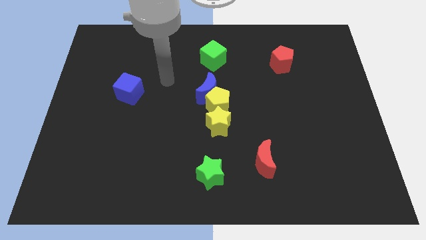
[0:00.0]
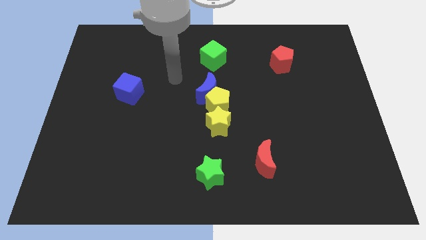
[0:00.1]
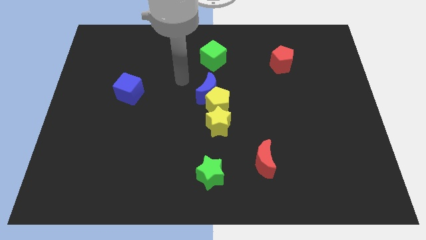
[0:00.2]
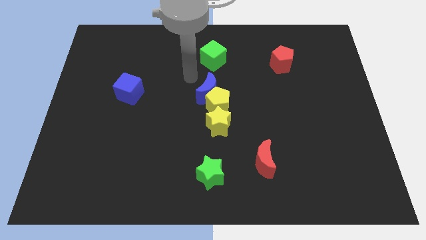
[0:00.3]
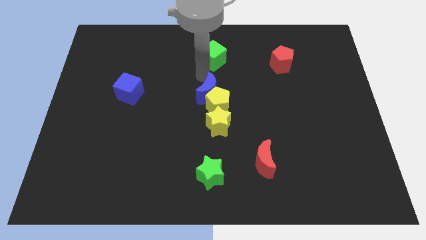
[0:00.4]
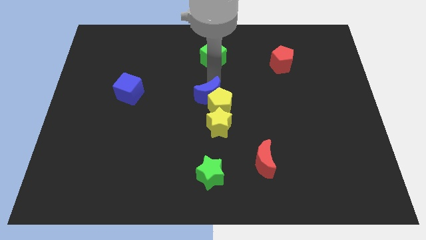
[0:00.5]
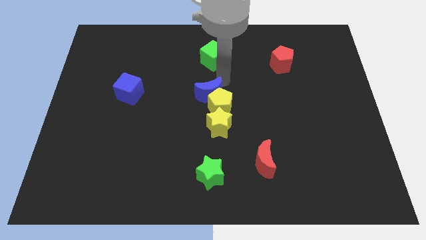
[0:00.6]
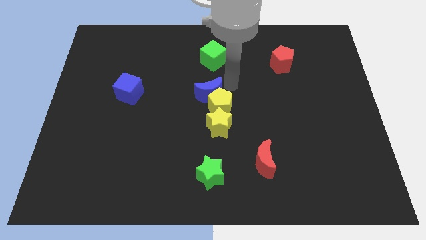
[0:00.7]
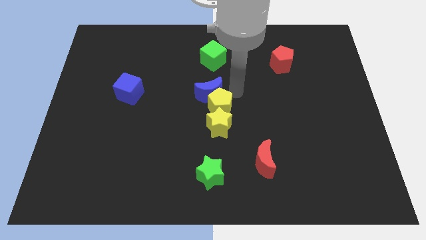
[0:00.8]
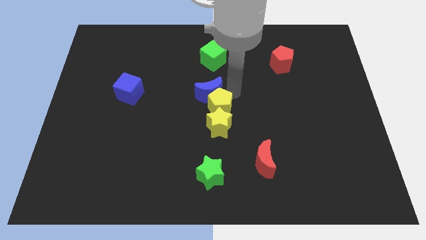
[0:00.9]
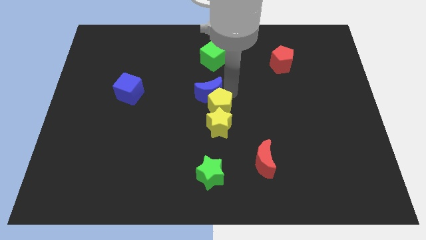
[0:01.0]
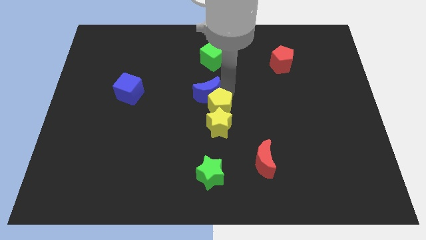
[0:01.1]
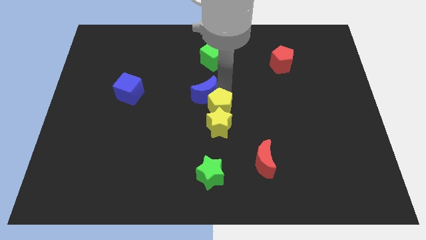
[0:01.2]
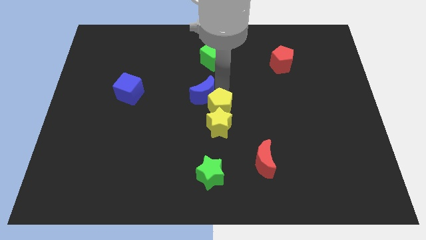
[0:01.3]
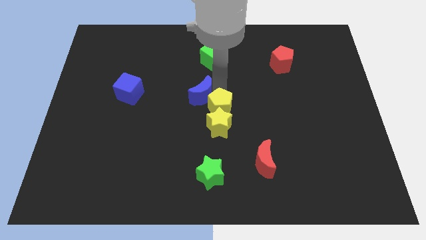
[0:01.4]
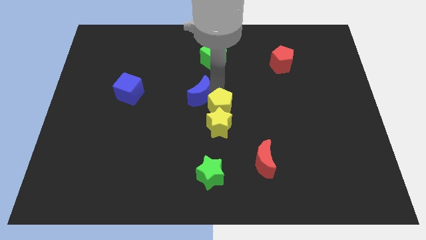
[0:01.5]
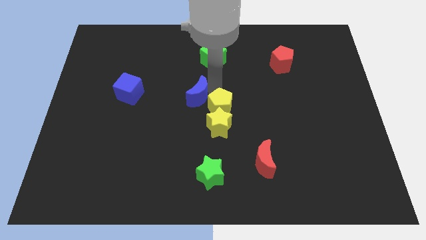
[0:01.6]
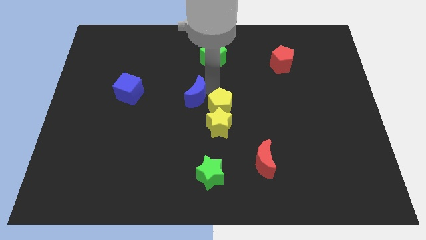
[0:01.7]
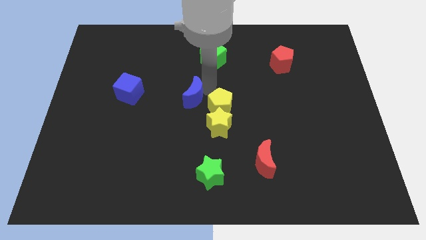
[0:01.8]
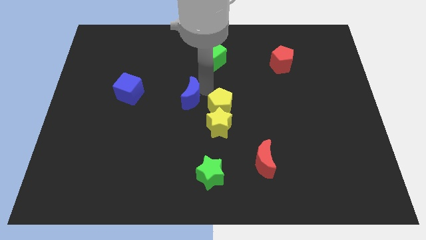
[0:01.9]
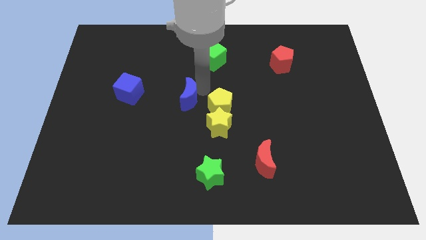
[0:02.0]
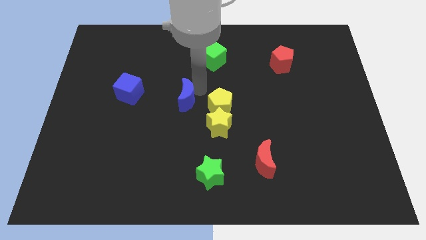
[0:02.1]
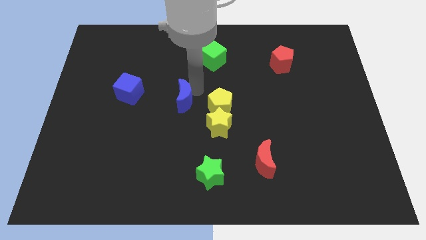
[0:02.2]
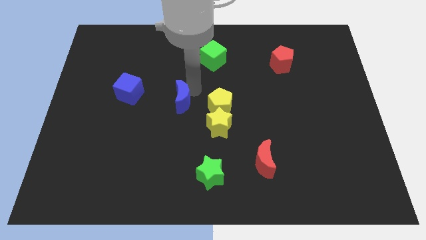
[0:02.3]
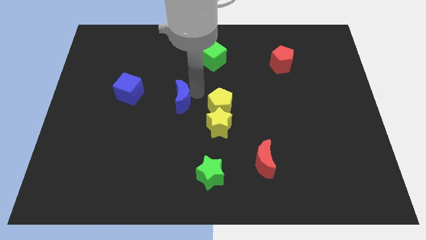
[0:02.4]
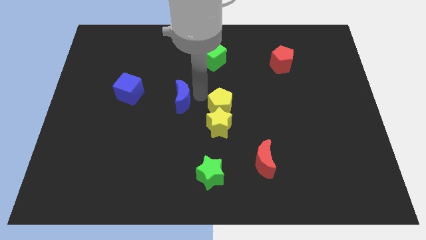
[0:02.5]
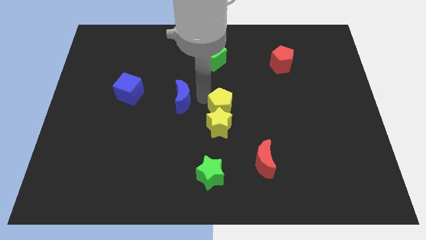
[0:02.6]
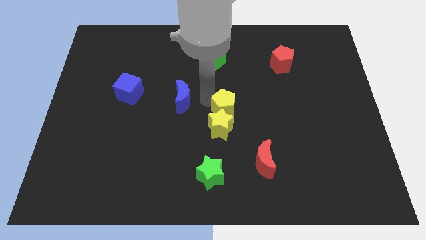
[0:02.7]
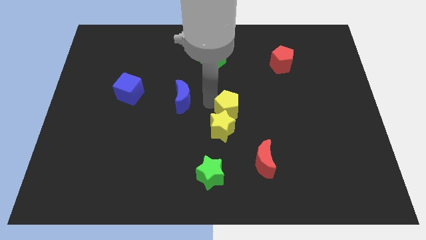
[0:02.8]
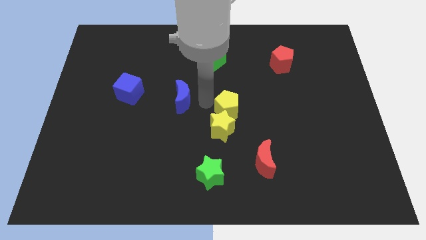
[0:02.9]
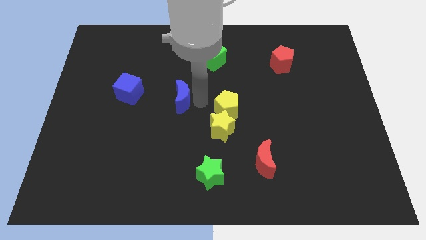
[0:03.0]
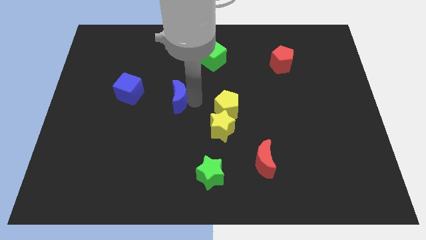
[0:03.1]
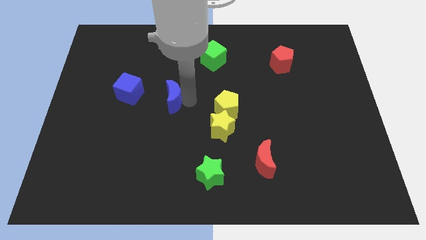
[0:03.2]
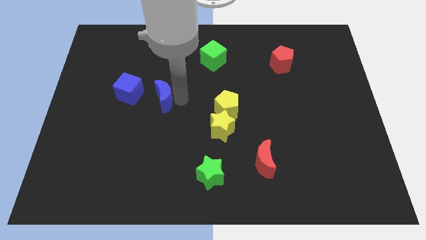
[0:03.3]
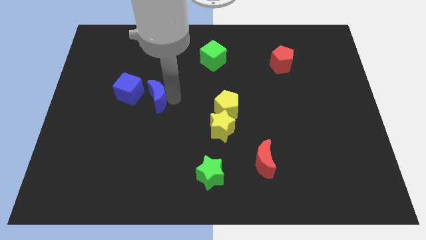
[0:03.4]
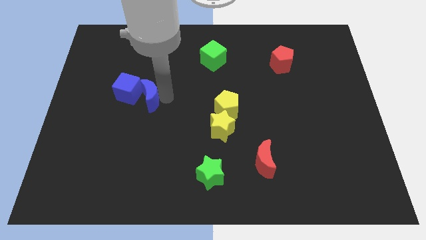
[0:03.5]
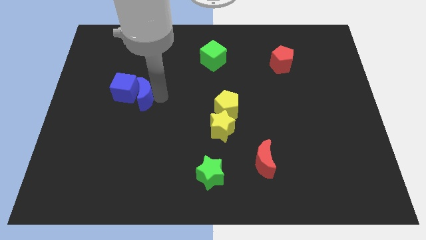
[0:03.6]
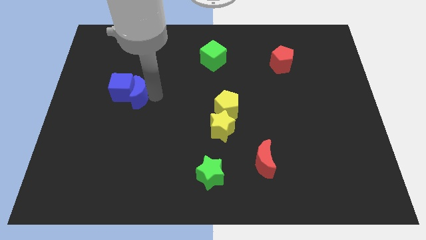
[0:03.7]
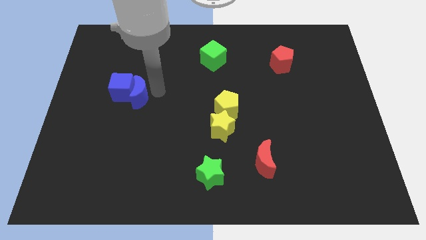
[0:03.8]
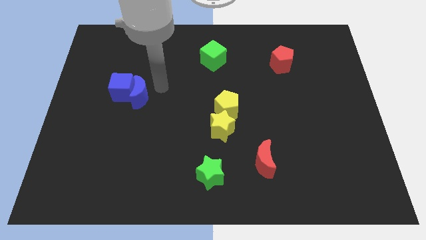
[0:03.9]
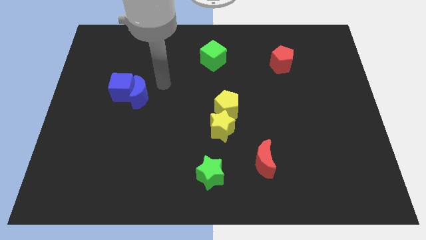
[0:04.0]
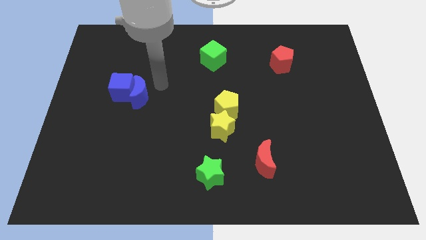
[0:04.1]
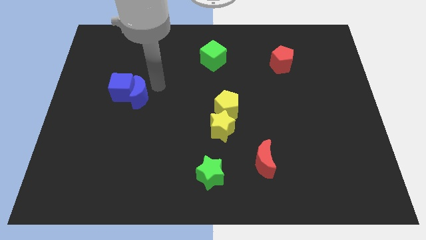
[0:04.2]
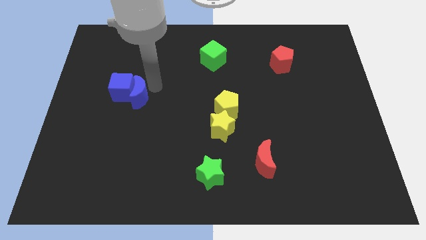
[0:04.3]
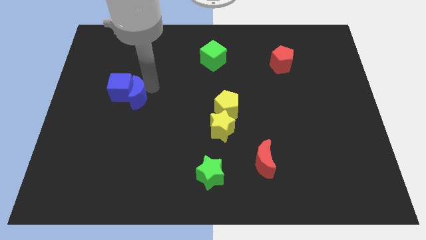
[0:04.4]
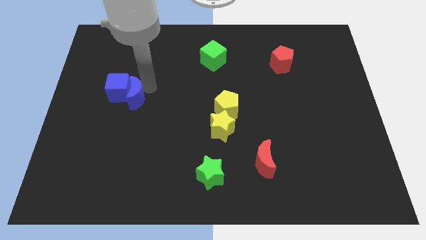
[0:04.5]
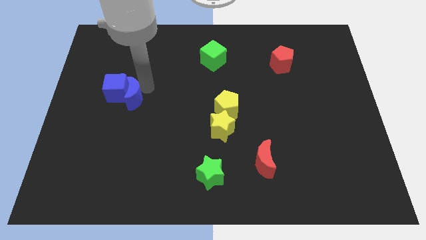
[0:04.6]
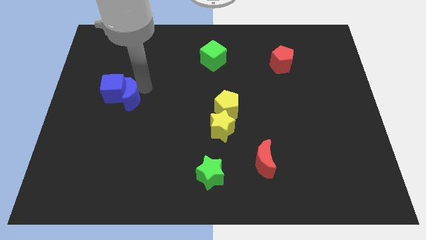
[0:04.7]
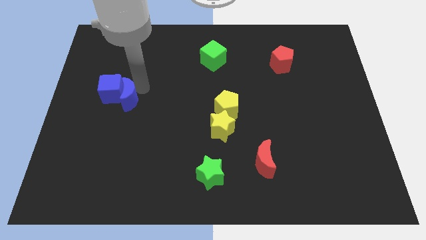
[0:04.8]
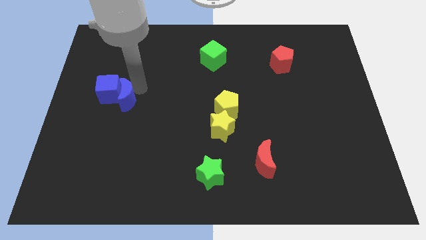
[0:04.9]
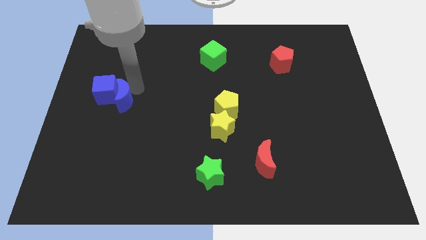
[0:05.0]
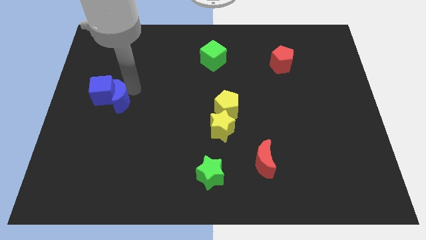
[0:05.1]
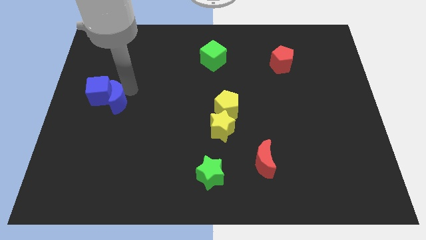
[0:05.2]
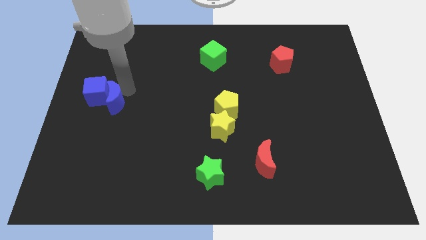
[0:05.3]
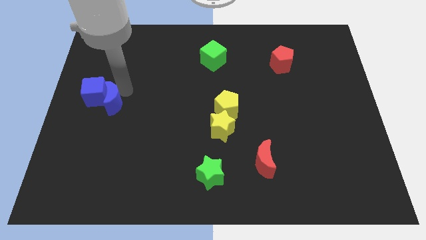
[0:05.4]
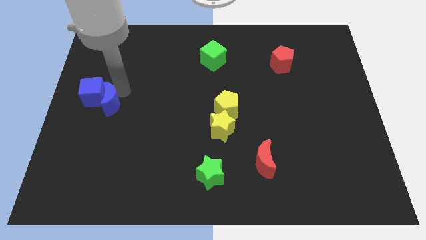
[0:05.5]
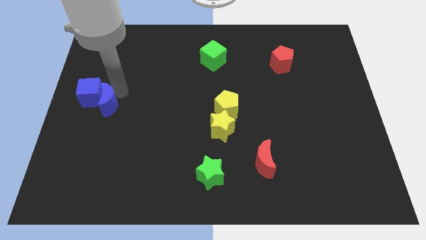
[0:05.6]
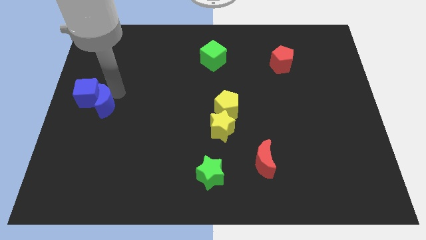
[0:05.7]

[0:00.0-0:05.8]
move the blue moon to the center left
